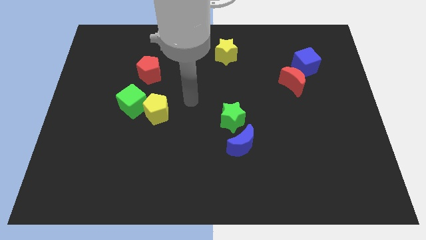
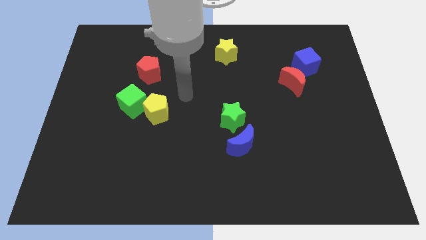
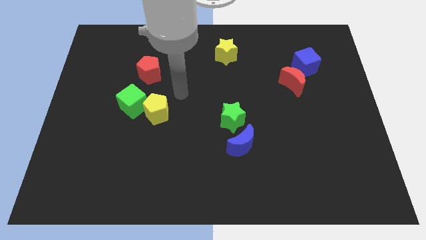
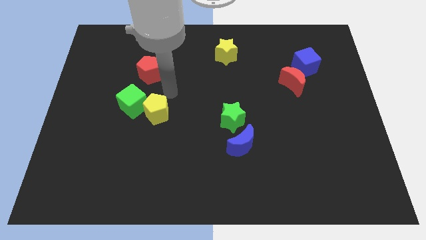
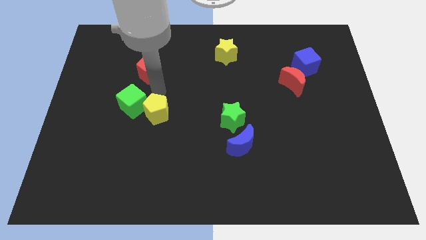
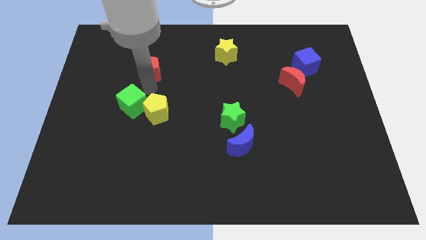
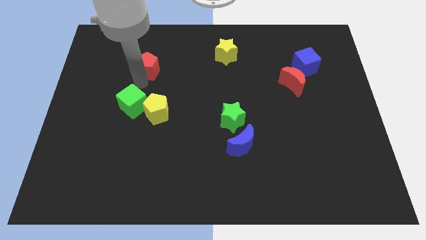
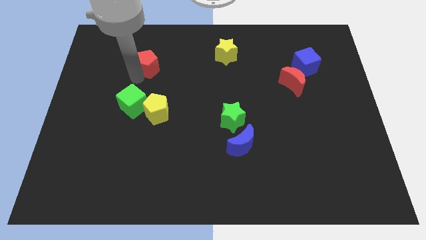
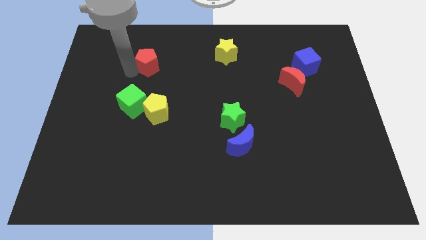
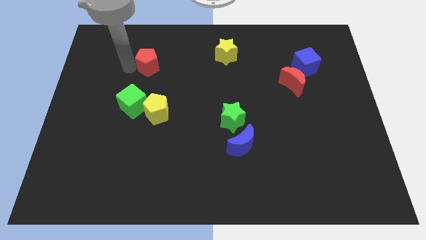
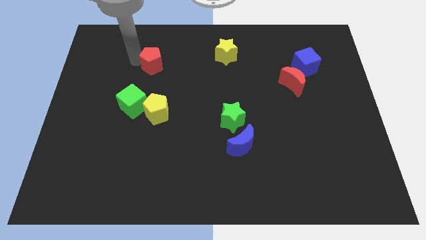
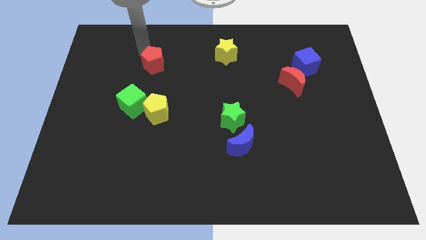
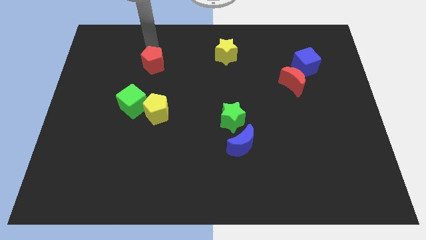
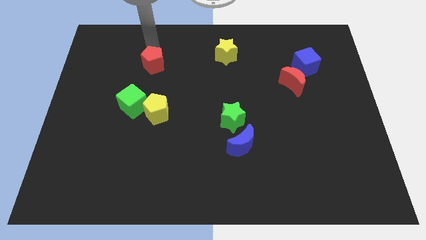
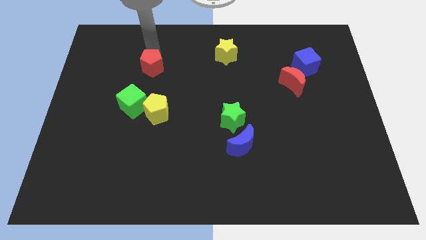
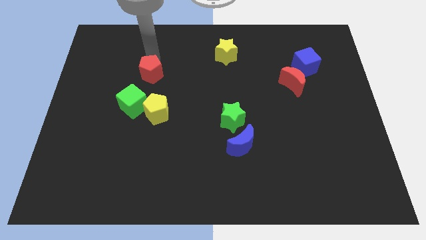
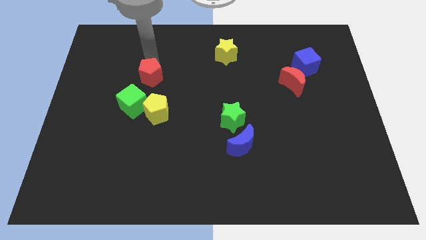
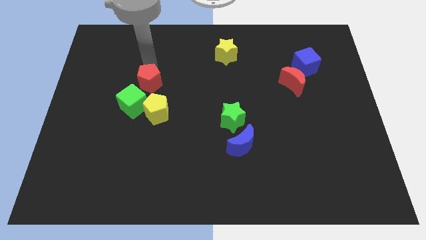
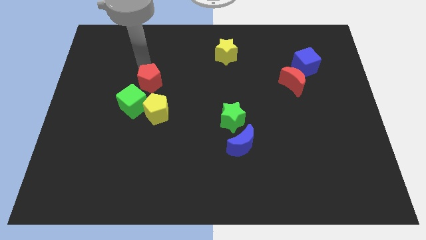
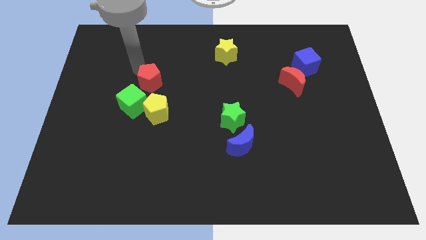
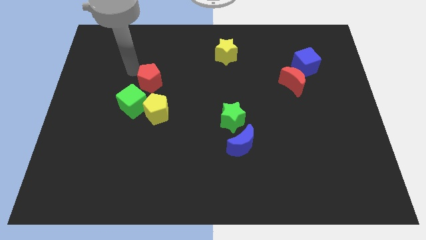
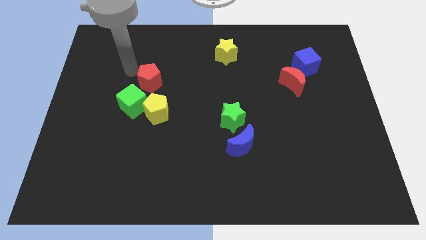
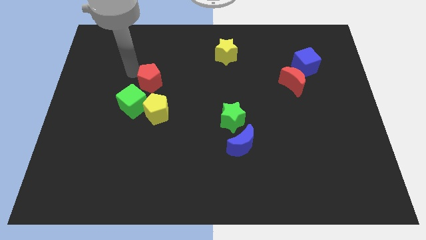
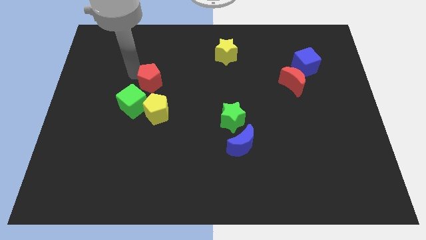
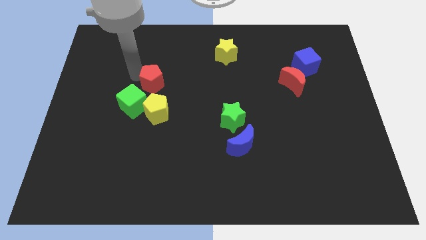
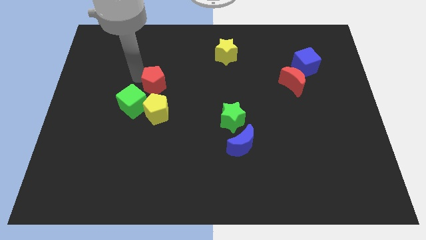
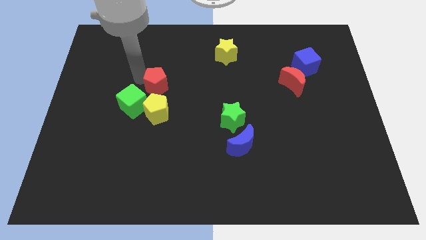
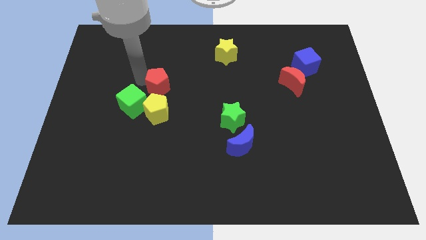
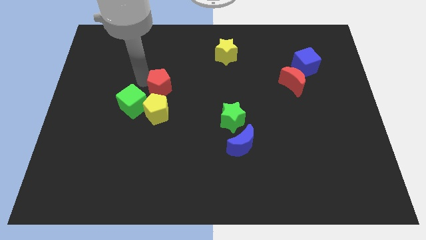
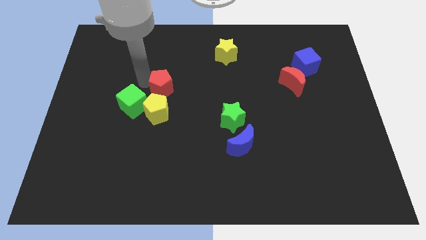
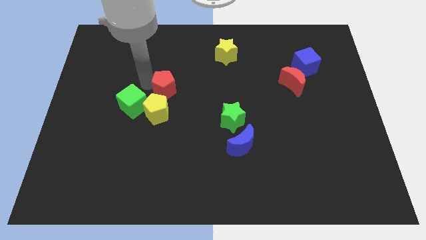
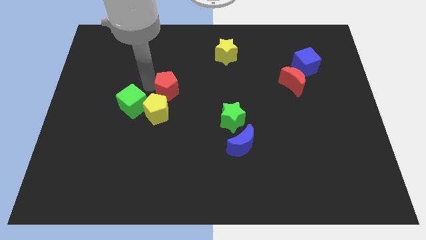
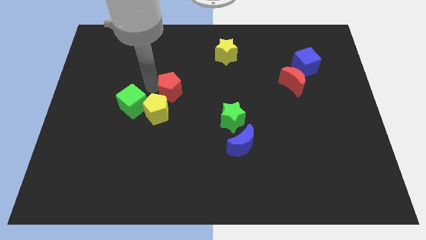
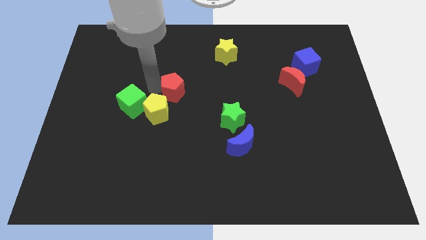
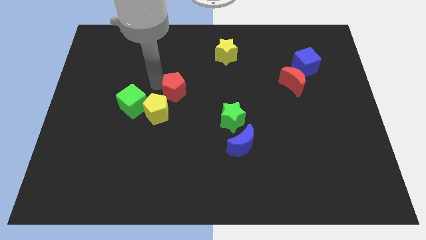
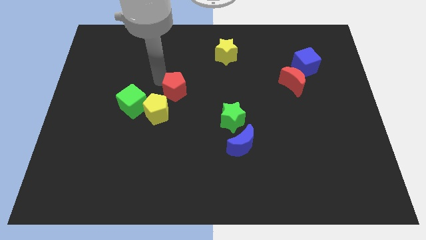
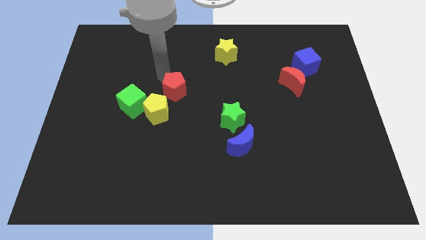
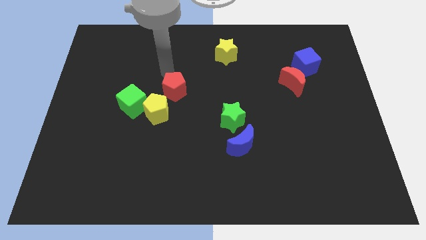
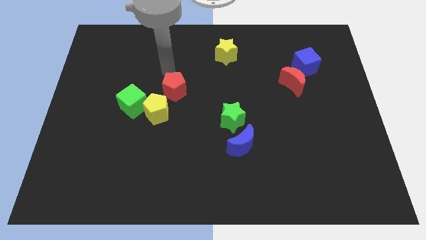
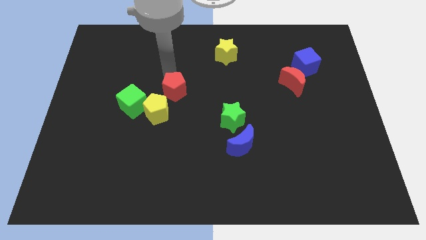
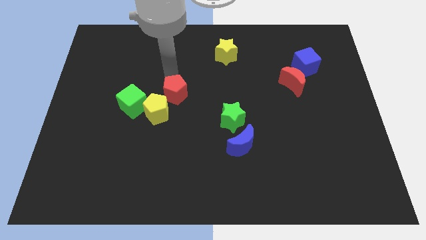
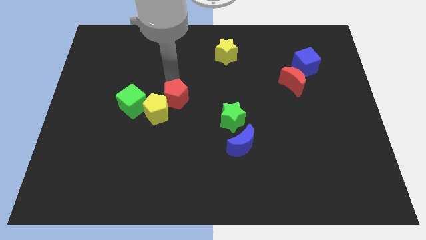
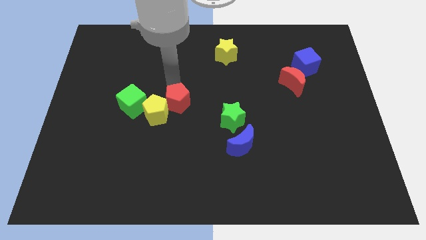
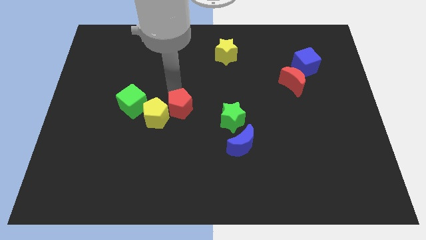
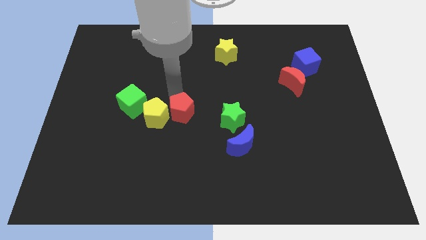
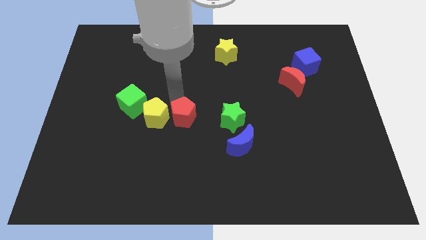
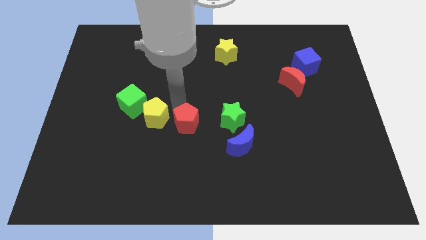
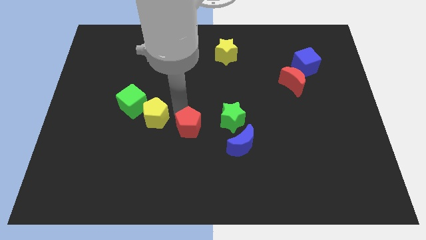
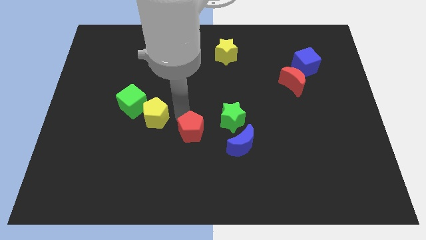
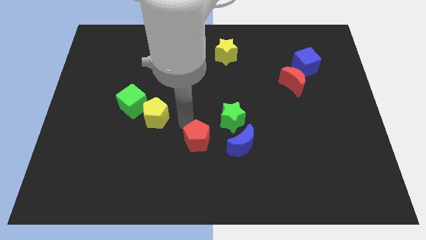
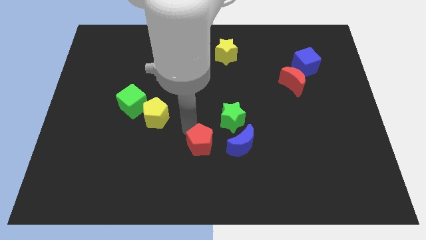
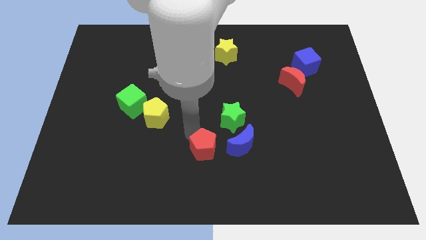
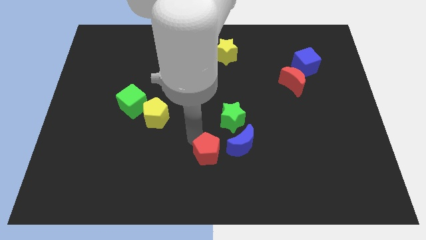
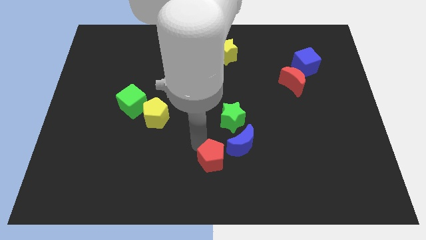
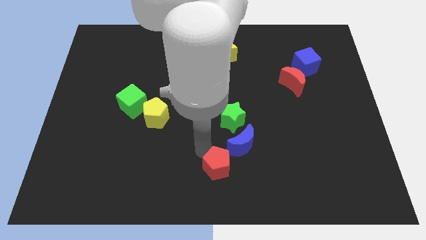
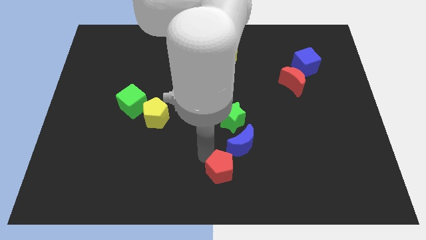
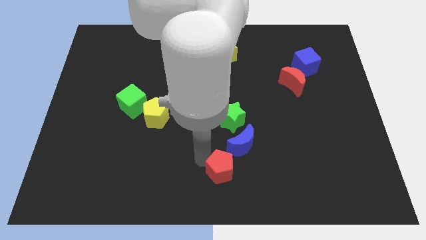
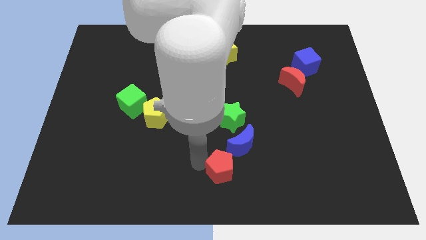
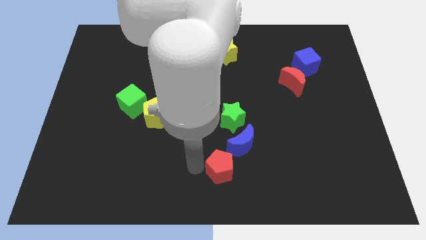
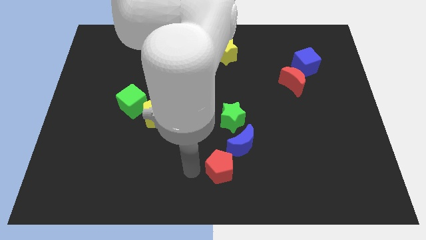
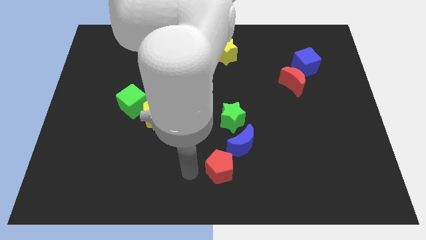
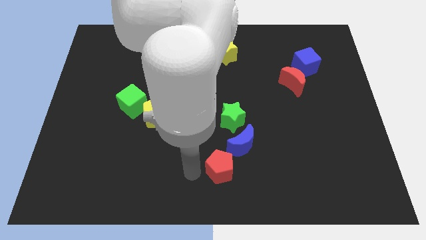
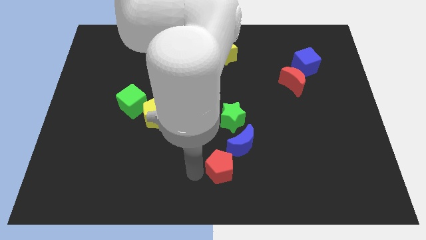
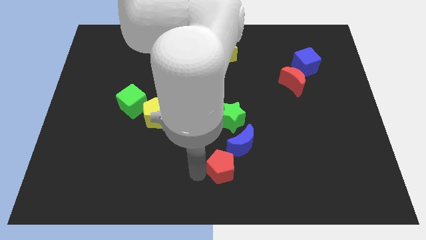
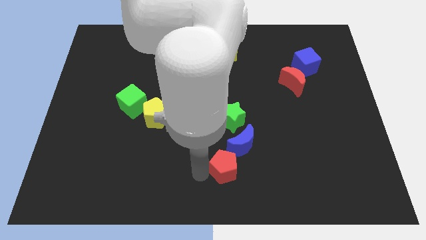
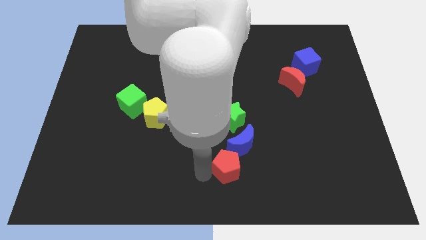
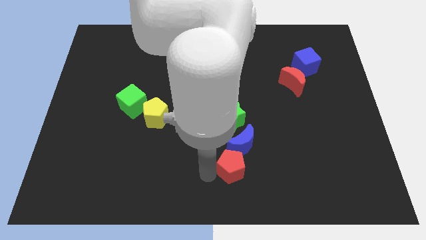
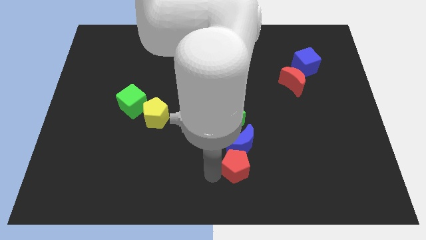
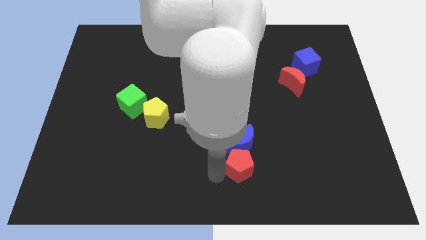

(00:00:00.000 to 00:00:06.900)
push the red pentagon diagonally down and to the right of the blue moon
